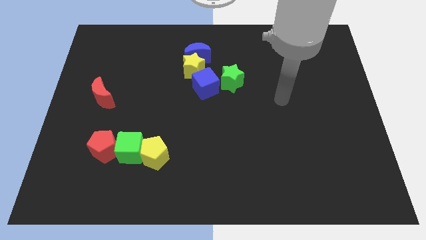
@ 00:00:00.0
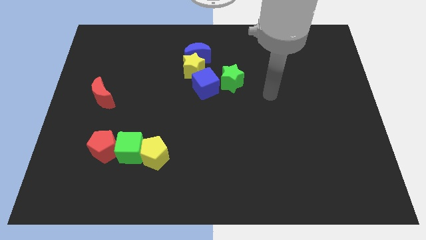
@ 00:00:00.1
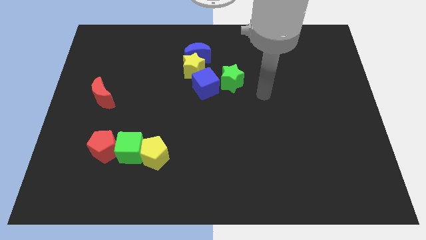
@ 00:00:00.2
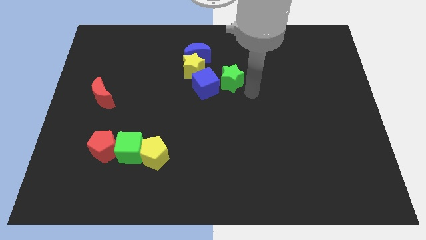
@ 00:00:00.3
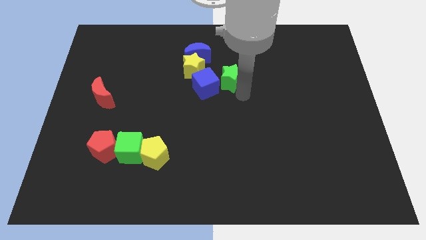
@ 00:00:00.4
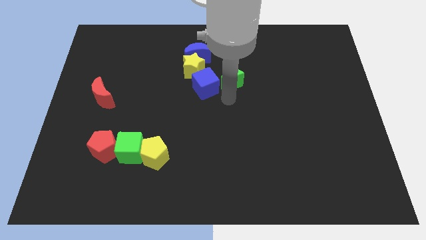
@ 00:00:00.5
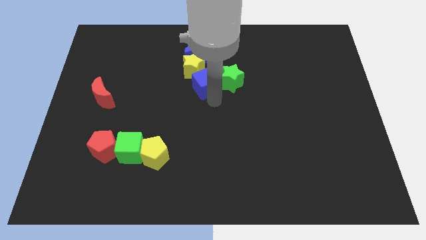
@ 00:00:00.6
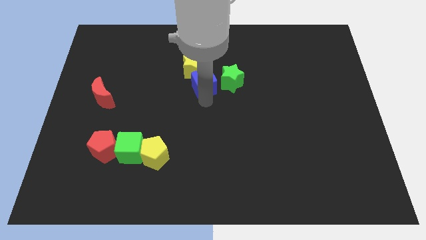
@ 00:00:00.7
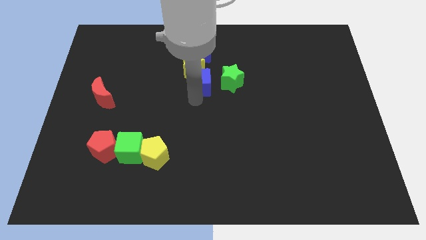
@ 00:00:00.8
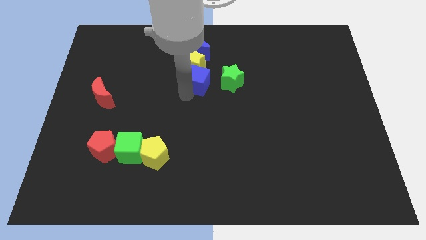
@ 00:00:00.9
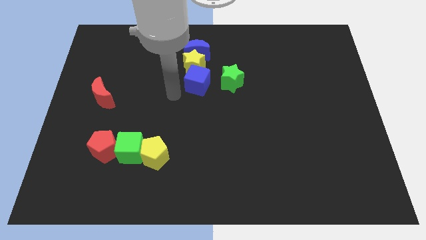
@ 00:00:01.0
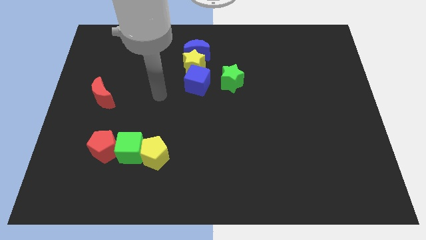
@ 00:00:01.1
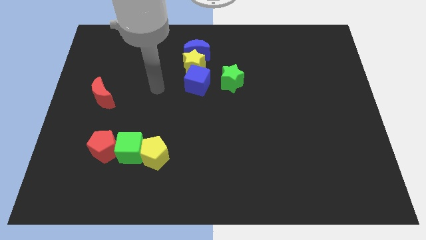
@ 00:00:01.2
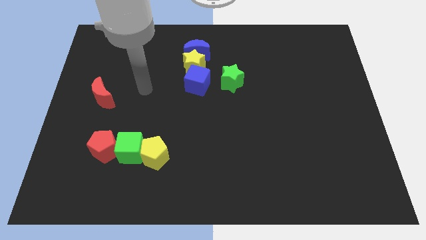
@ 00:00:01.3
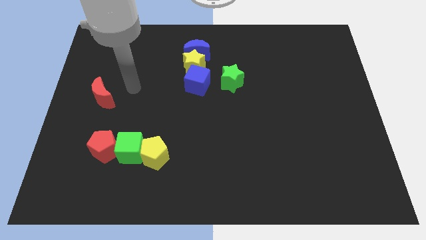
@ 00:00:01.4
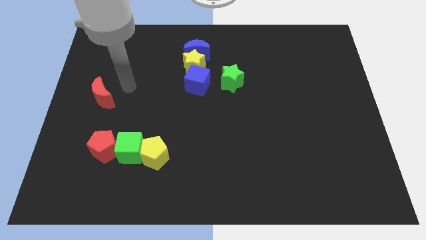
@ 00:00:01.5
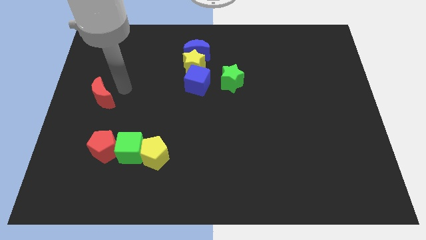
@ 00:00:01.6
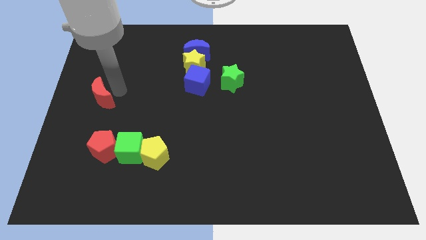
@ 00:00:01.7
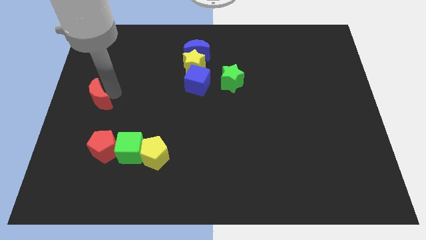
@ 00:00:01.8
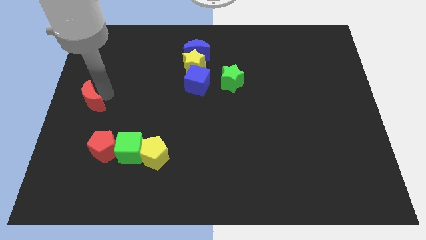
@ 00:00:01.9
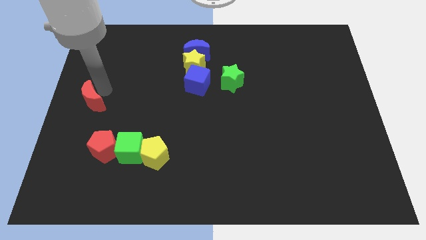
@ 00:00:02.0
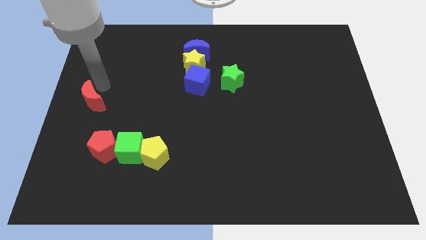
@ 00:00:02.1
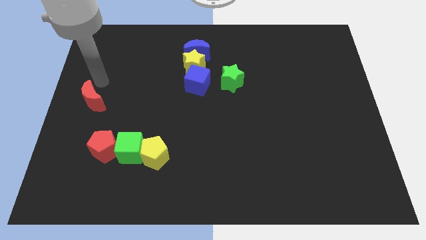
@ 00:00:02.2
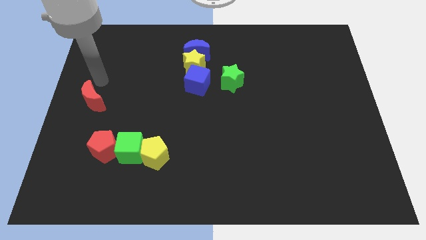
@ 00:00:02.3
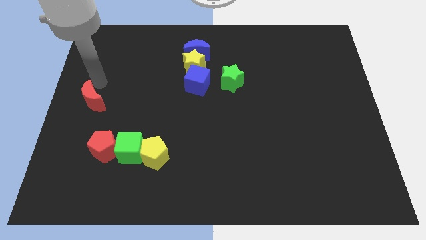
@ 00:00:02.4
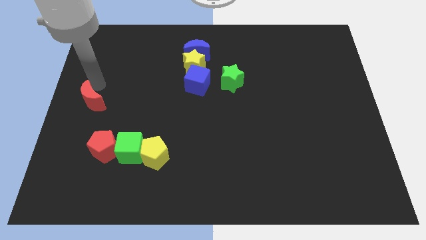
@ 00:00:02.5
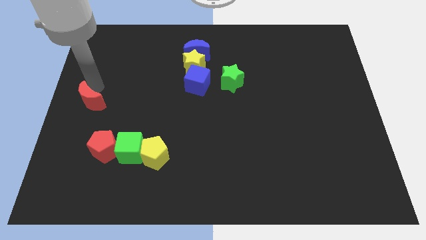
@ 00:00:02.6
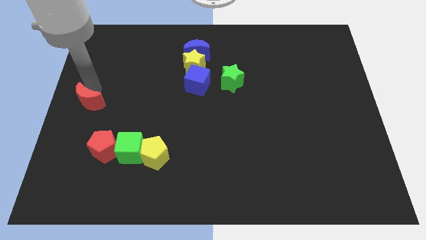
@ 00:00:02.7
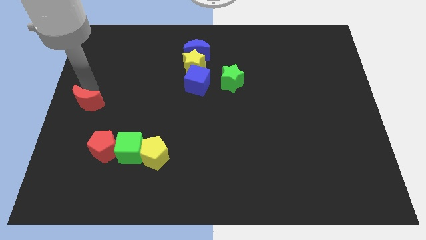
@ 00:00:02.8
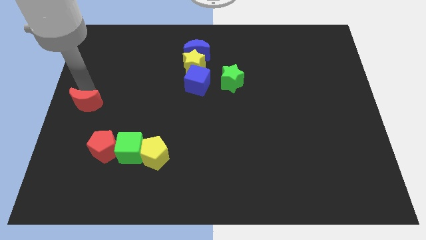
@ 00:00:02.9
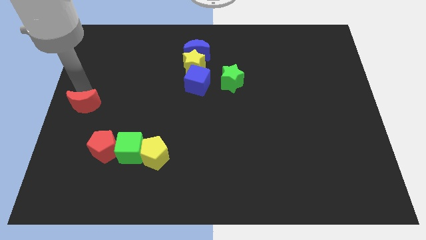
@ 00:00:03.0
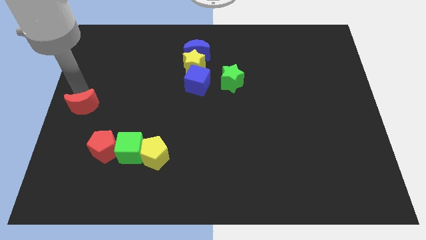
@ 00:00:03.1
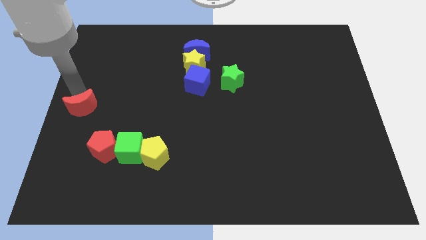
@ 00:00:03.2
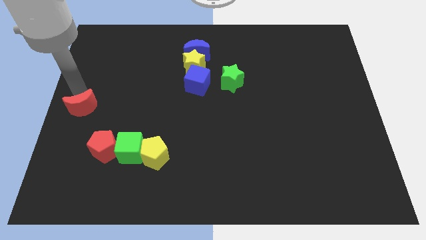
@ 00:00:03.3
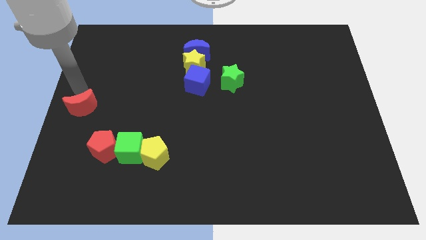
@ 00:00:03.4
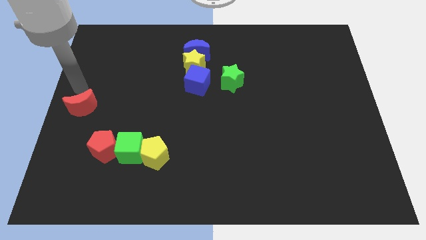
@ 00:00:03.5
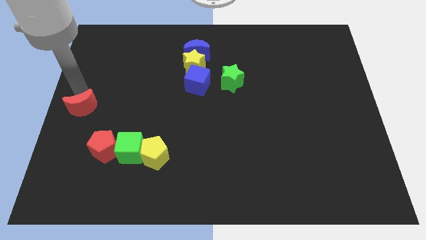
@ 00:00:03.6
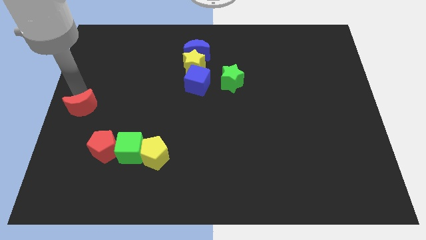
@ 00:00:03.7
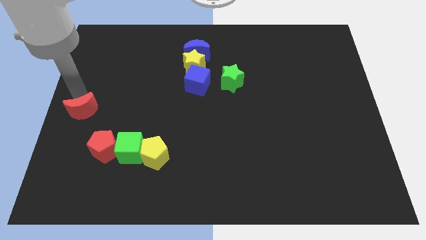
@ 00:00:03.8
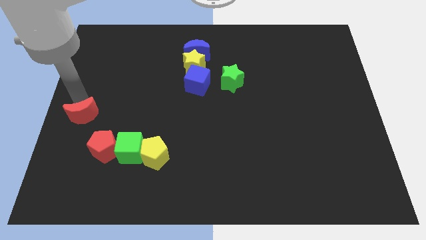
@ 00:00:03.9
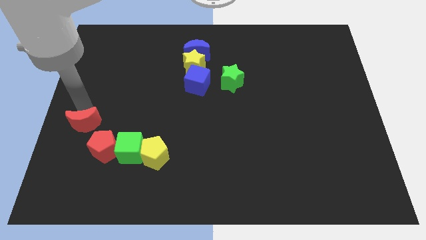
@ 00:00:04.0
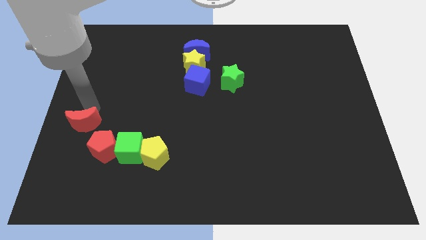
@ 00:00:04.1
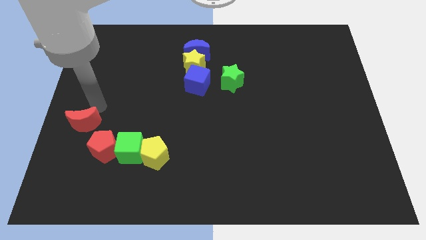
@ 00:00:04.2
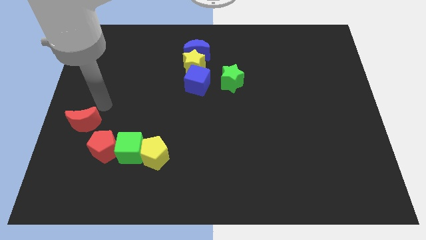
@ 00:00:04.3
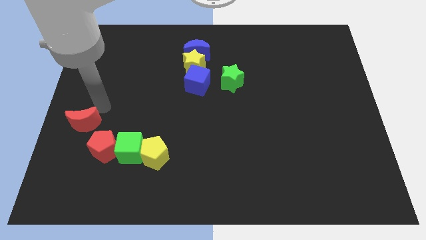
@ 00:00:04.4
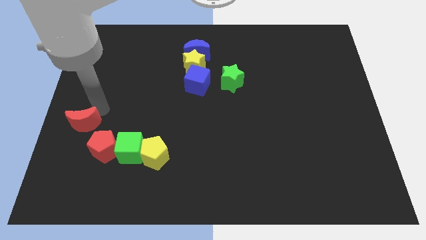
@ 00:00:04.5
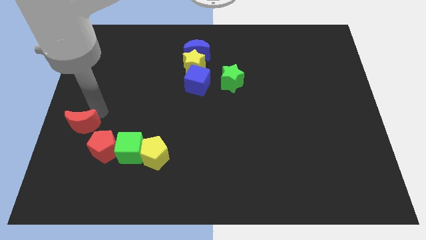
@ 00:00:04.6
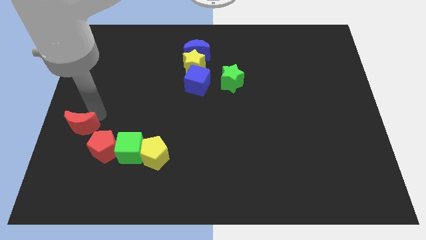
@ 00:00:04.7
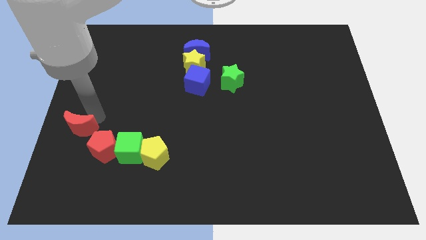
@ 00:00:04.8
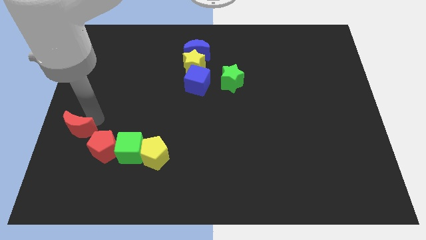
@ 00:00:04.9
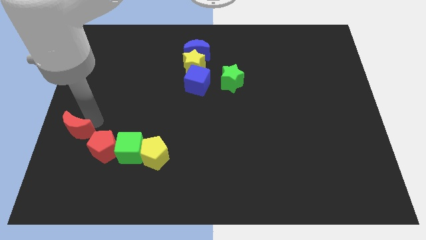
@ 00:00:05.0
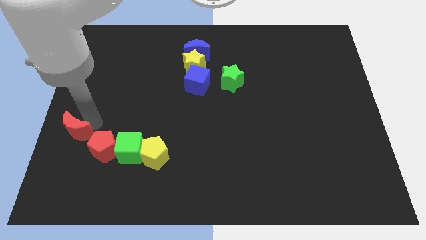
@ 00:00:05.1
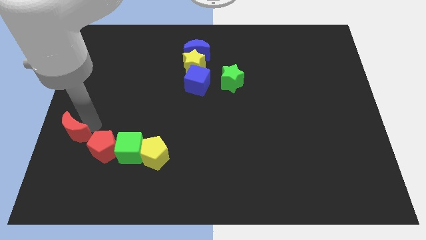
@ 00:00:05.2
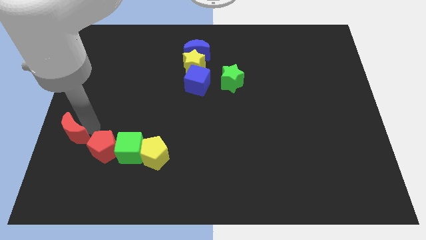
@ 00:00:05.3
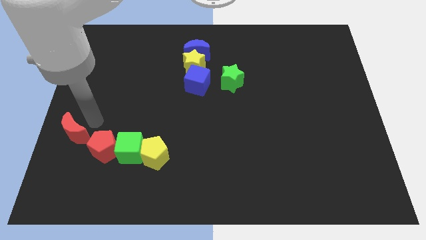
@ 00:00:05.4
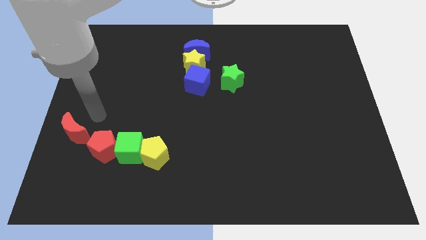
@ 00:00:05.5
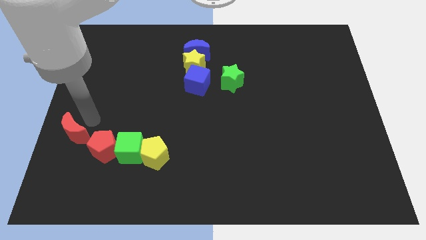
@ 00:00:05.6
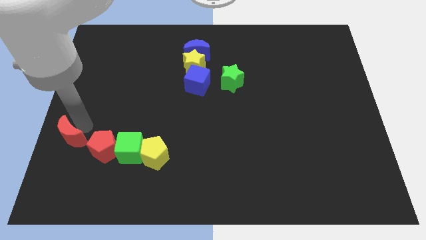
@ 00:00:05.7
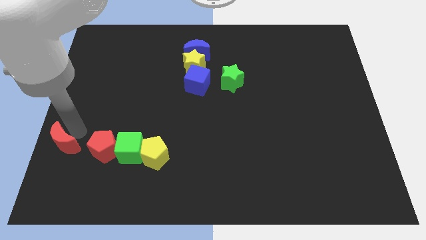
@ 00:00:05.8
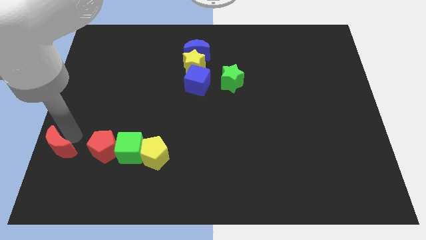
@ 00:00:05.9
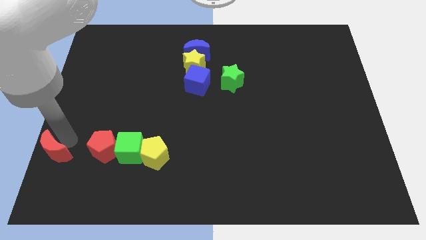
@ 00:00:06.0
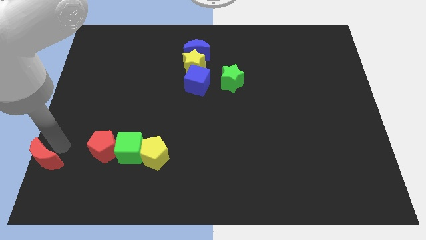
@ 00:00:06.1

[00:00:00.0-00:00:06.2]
push the red moon to the lower left corner
